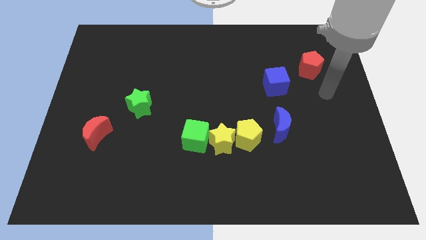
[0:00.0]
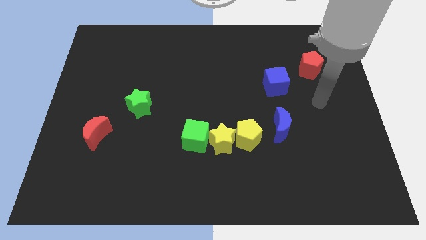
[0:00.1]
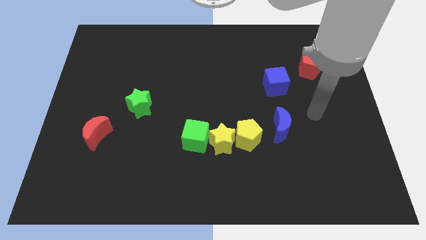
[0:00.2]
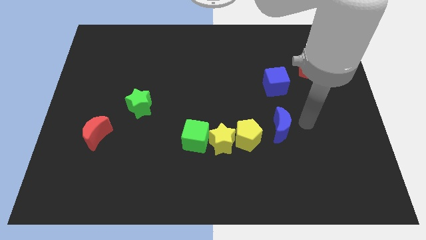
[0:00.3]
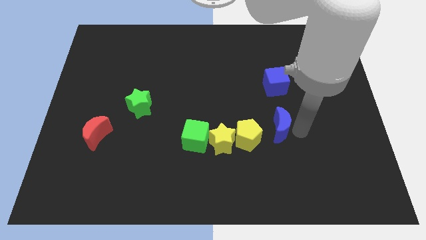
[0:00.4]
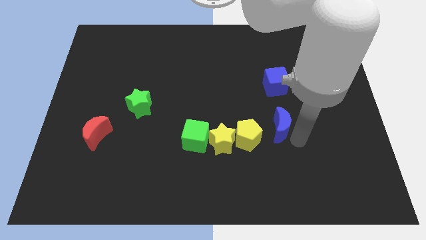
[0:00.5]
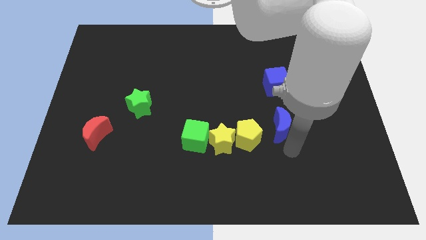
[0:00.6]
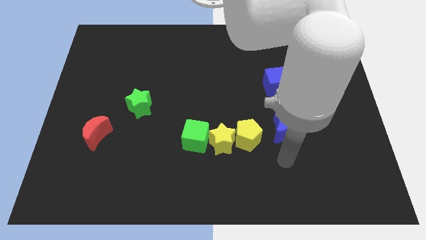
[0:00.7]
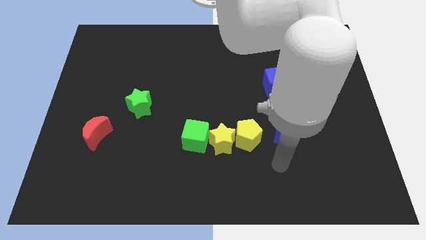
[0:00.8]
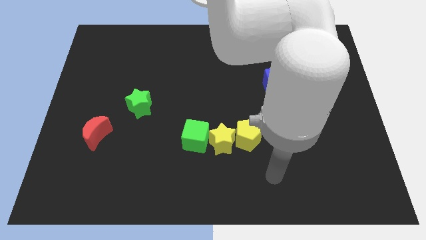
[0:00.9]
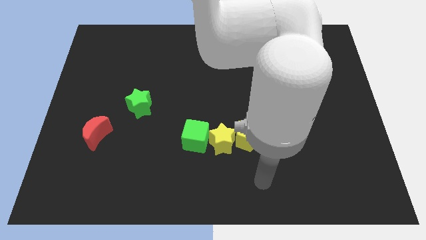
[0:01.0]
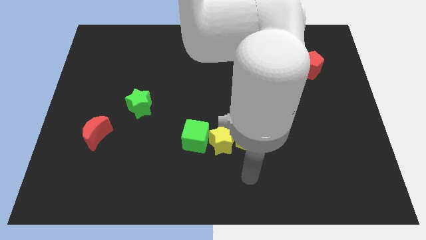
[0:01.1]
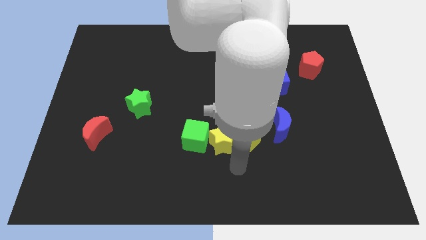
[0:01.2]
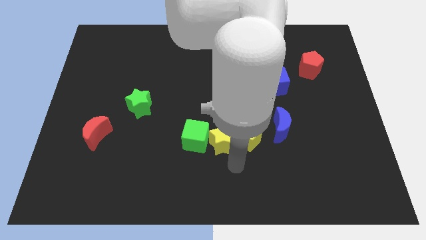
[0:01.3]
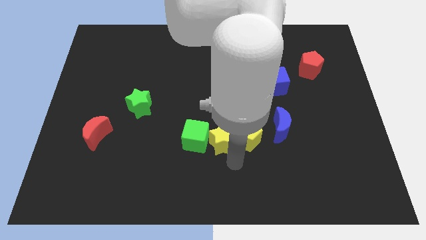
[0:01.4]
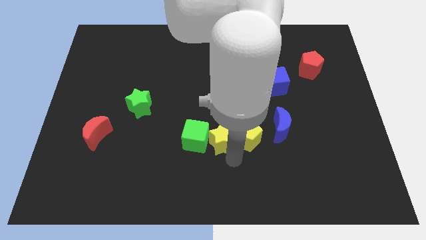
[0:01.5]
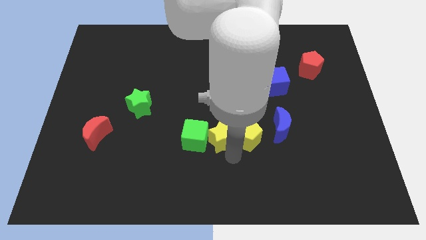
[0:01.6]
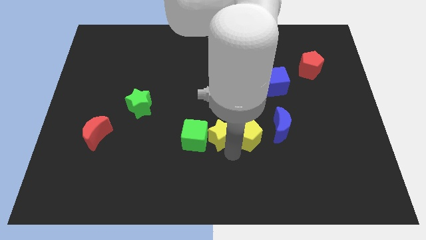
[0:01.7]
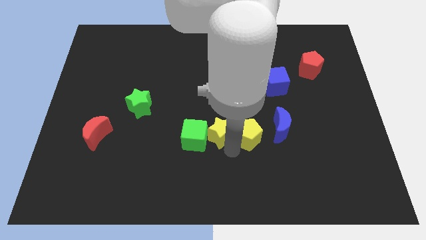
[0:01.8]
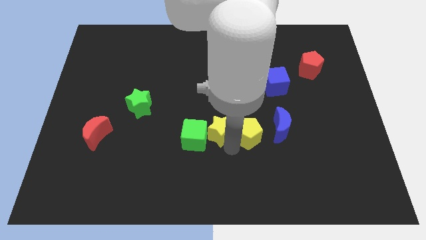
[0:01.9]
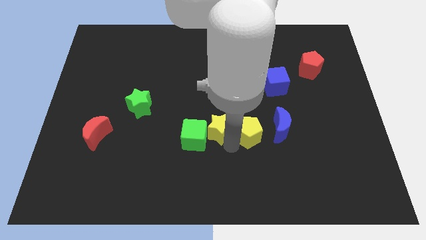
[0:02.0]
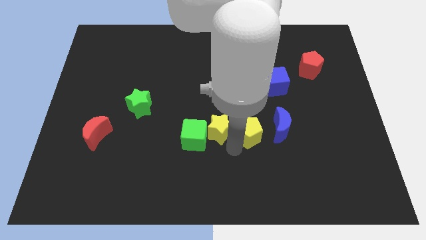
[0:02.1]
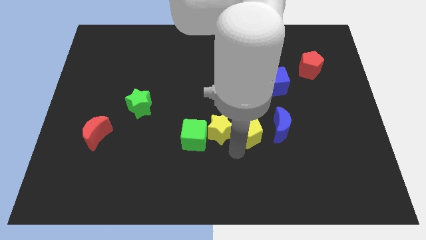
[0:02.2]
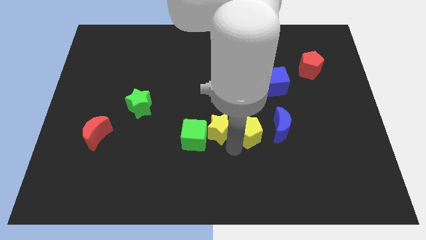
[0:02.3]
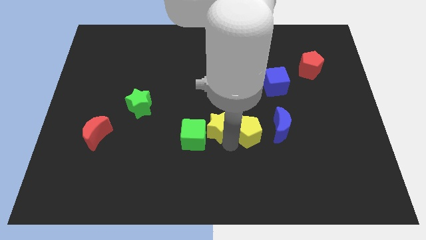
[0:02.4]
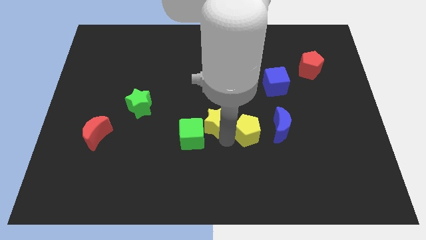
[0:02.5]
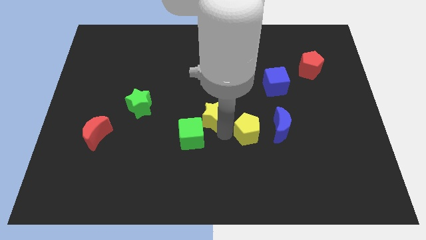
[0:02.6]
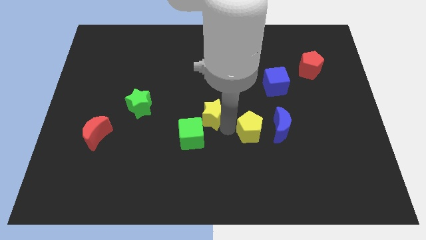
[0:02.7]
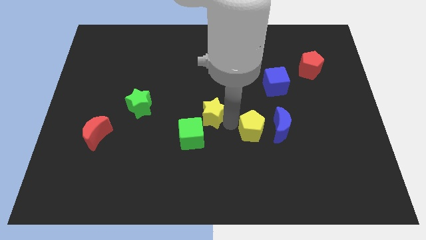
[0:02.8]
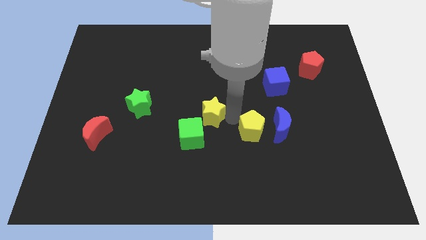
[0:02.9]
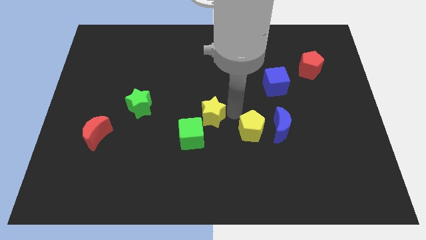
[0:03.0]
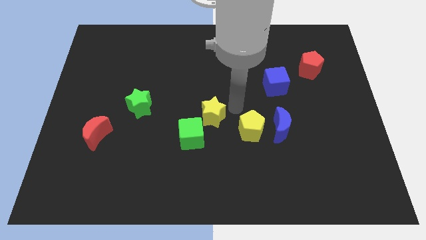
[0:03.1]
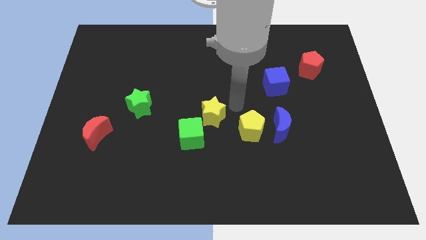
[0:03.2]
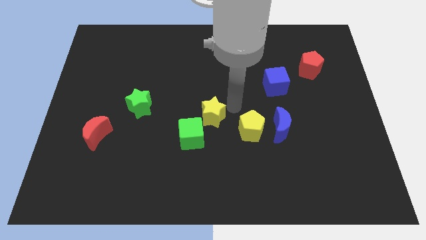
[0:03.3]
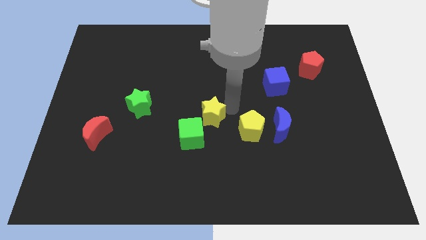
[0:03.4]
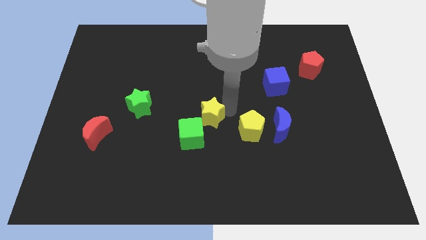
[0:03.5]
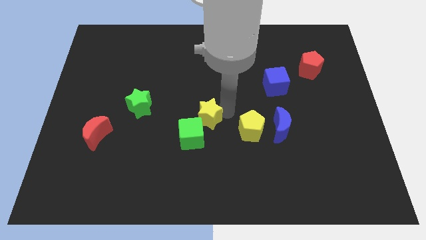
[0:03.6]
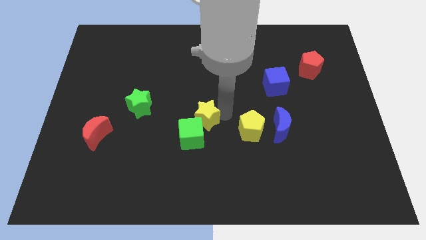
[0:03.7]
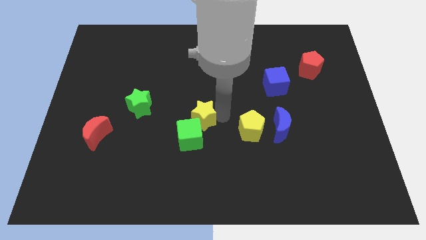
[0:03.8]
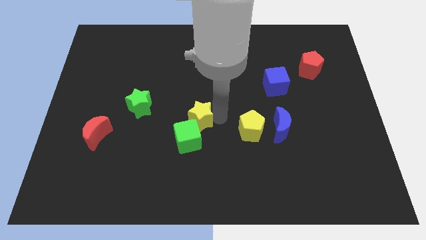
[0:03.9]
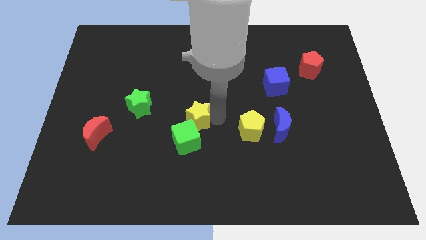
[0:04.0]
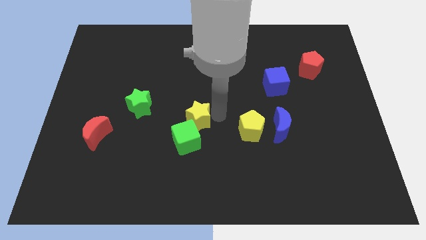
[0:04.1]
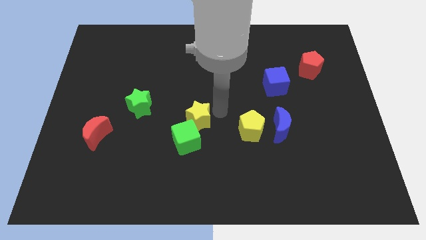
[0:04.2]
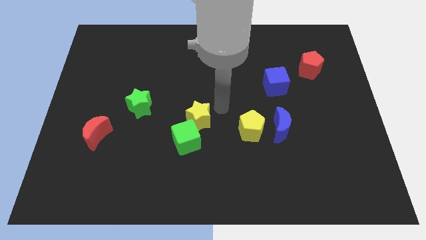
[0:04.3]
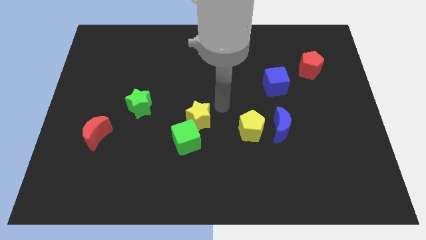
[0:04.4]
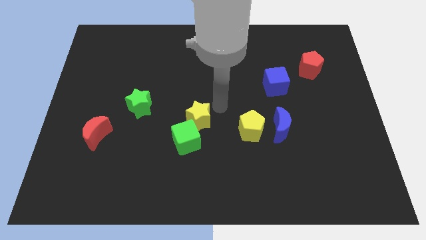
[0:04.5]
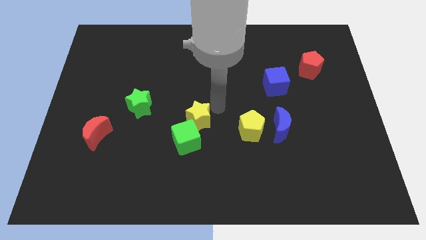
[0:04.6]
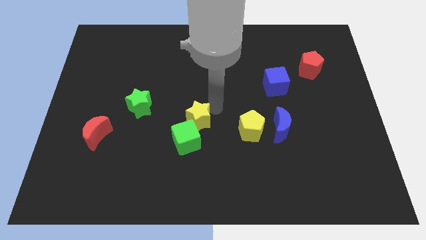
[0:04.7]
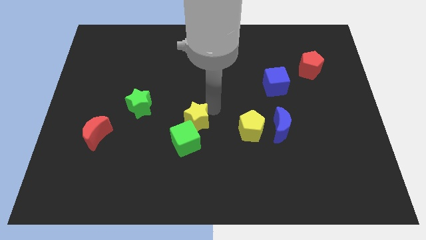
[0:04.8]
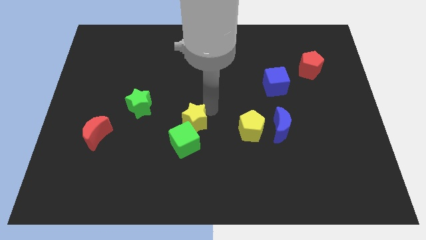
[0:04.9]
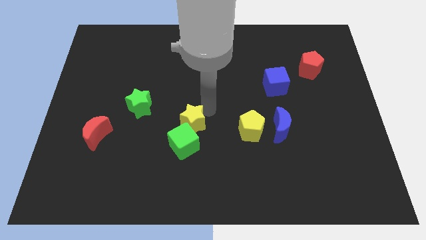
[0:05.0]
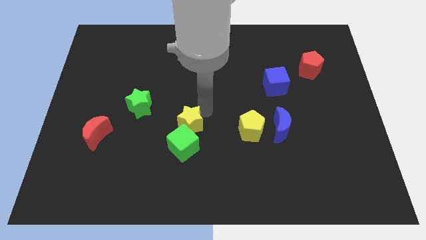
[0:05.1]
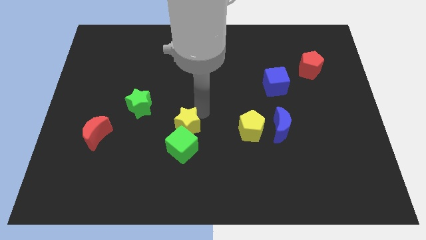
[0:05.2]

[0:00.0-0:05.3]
move the yellow star left slightly

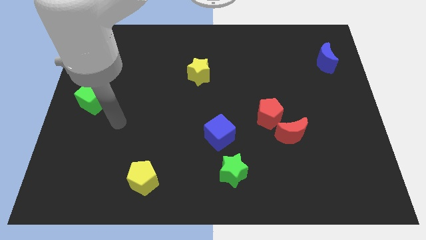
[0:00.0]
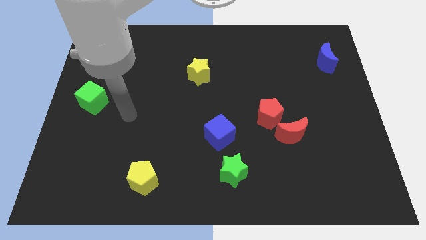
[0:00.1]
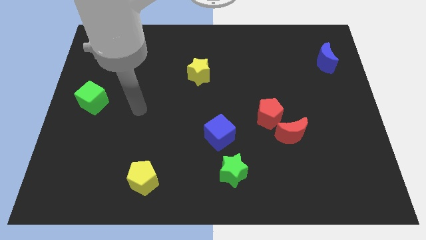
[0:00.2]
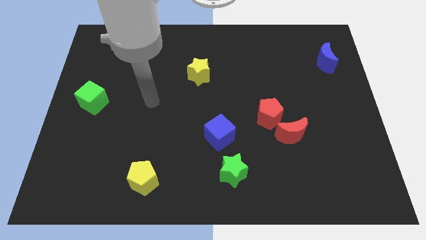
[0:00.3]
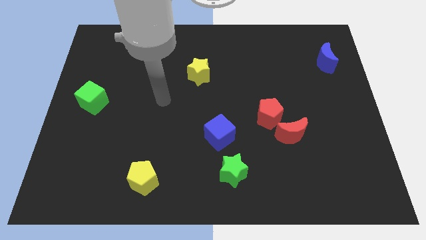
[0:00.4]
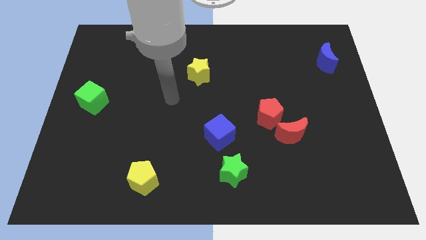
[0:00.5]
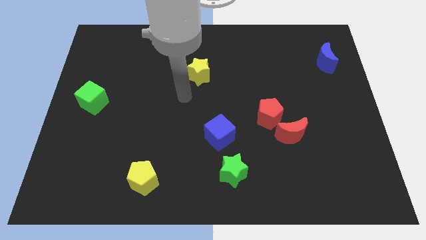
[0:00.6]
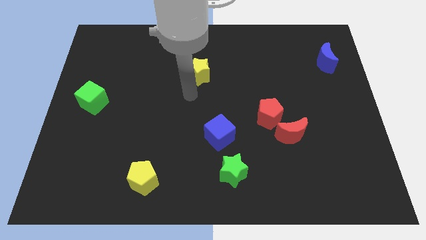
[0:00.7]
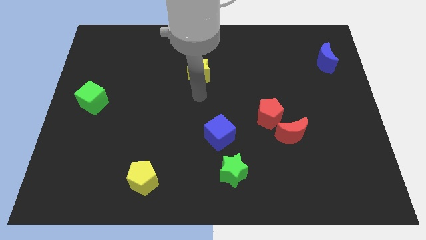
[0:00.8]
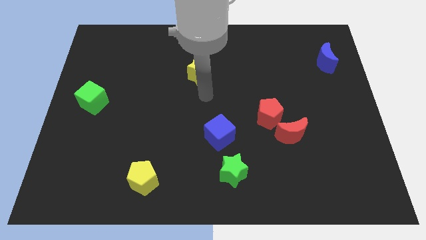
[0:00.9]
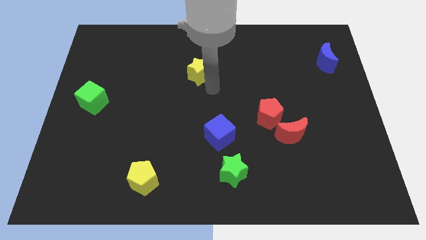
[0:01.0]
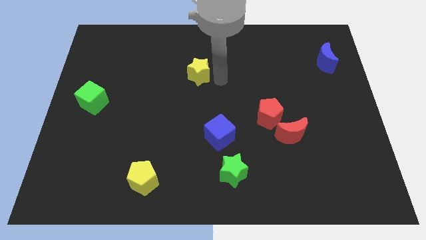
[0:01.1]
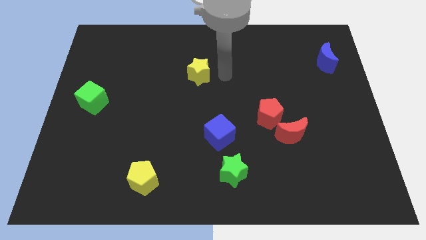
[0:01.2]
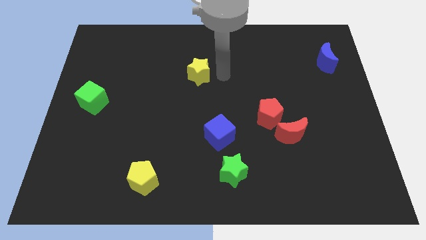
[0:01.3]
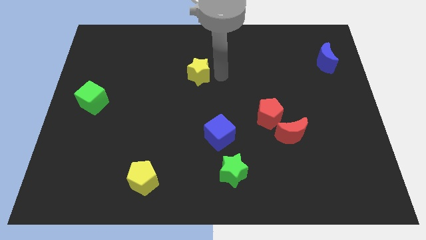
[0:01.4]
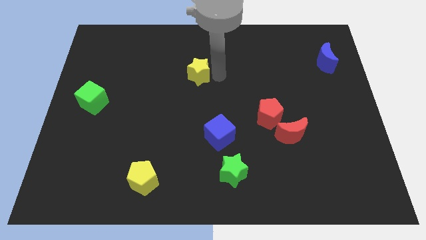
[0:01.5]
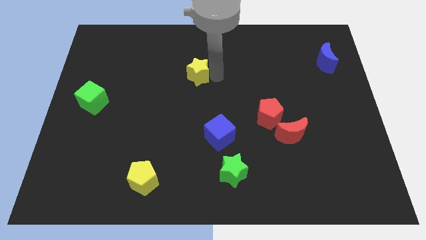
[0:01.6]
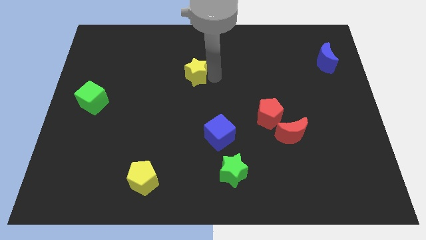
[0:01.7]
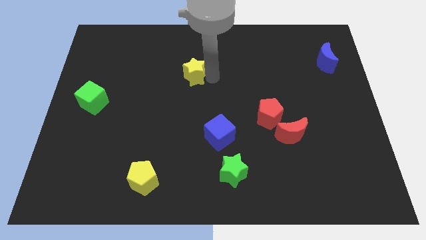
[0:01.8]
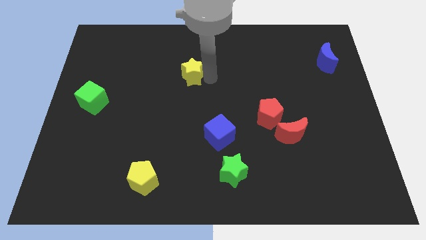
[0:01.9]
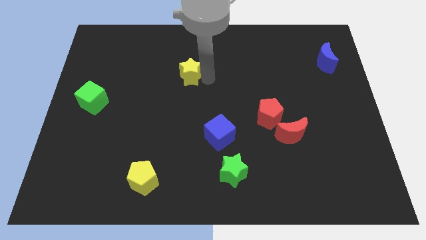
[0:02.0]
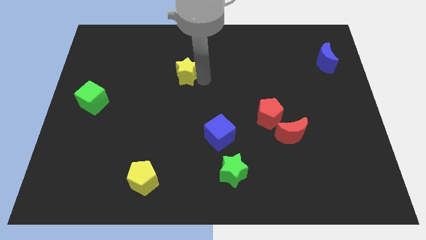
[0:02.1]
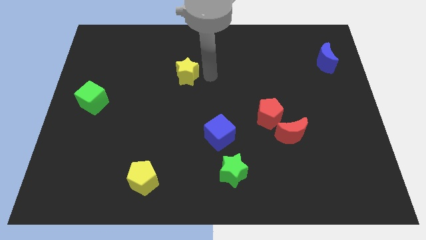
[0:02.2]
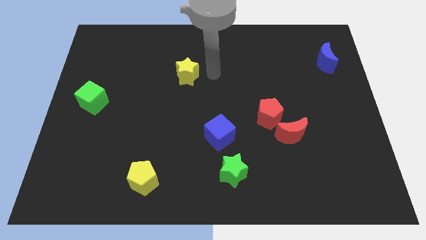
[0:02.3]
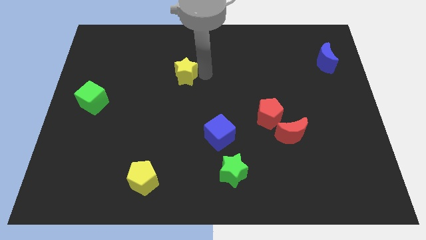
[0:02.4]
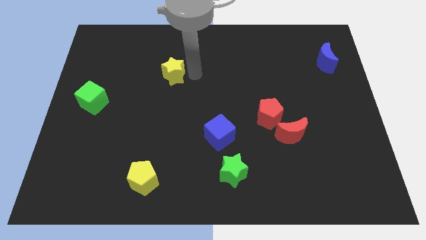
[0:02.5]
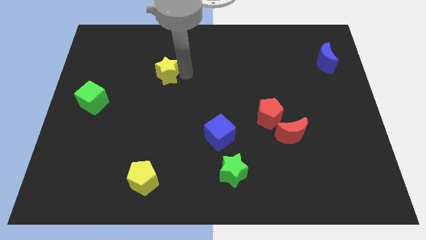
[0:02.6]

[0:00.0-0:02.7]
move the yellow star slightly left

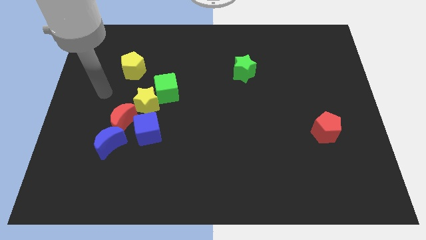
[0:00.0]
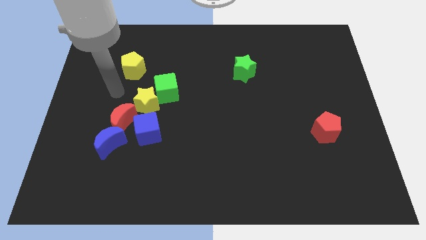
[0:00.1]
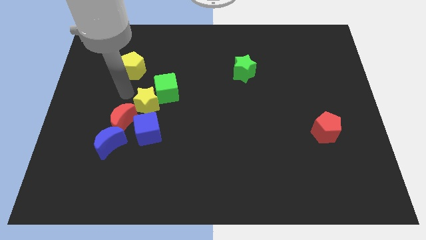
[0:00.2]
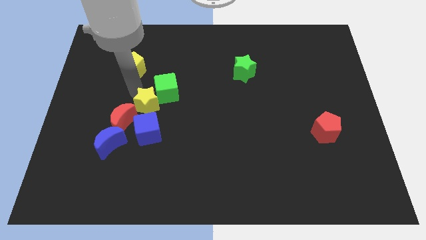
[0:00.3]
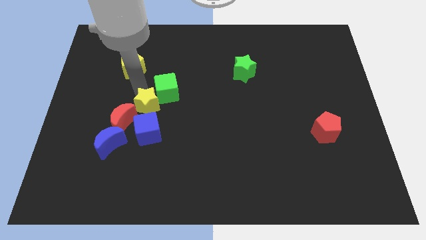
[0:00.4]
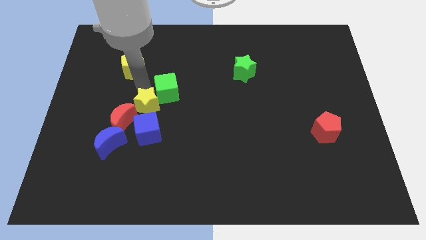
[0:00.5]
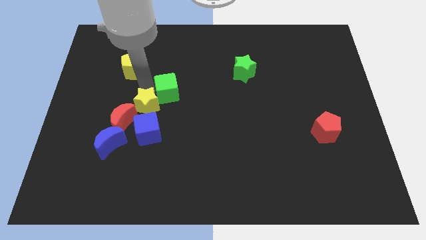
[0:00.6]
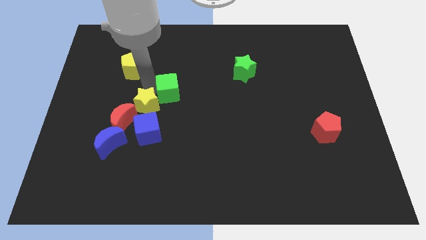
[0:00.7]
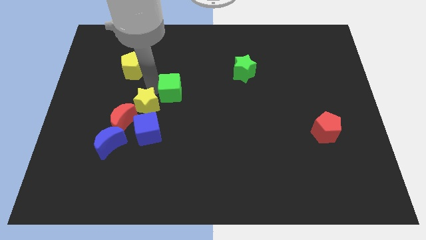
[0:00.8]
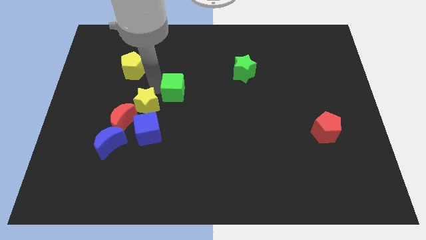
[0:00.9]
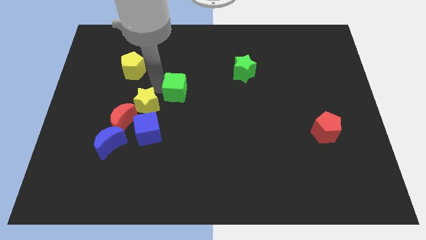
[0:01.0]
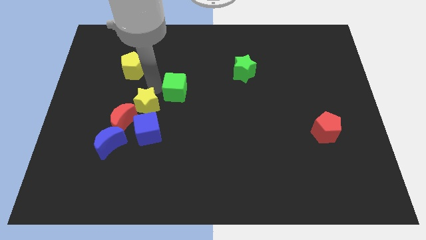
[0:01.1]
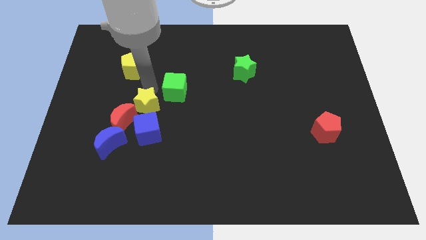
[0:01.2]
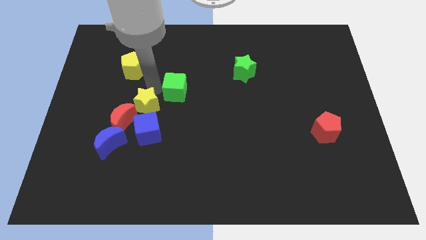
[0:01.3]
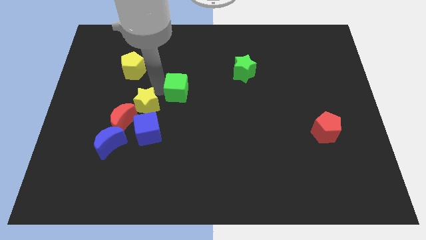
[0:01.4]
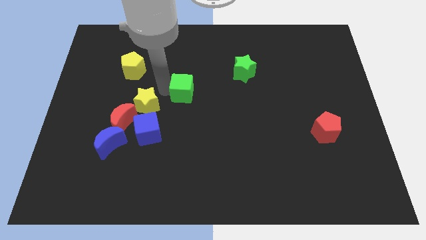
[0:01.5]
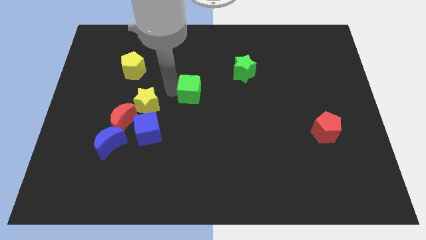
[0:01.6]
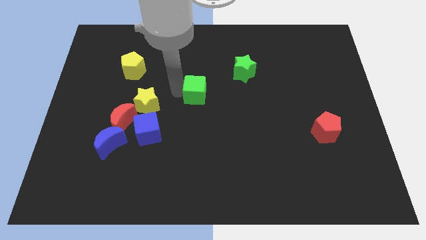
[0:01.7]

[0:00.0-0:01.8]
slightly move the green cube right
